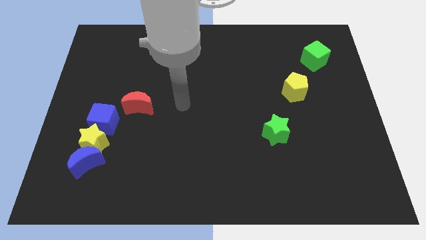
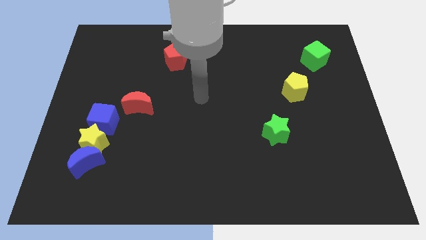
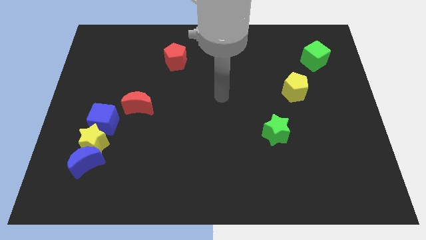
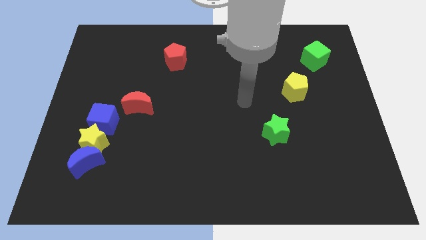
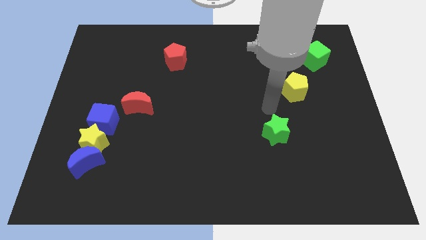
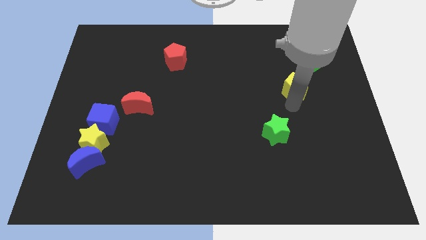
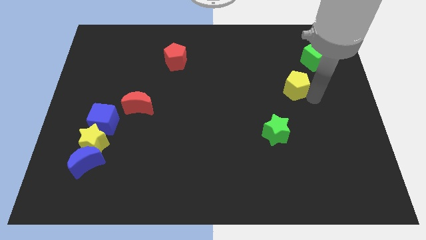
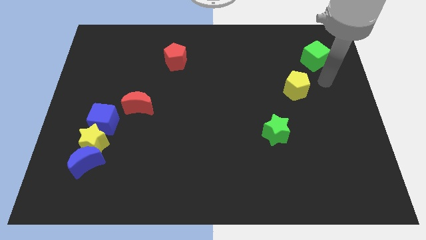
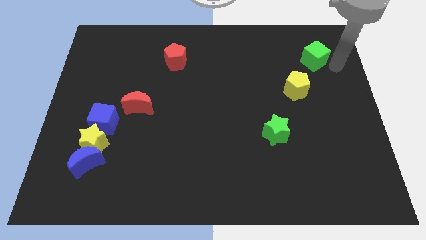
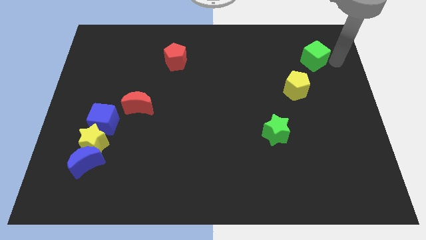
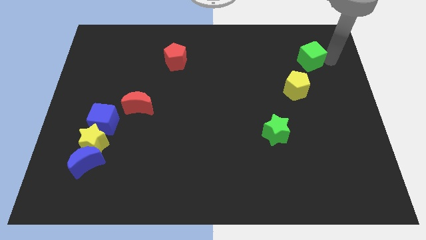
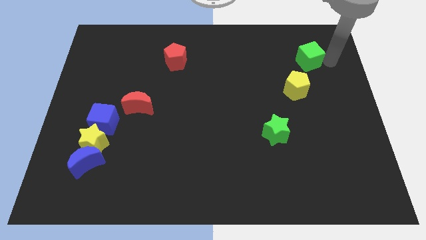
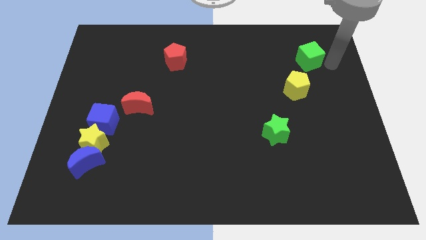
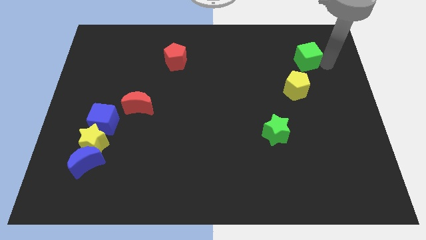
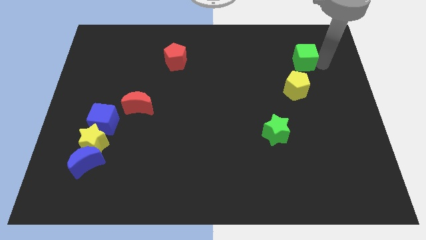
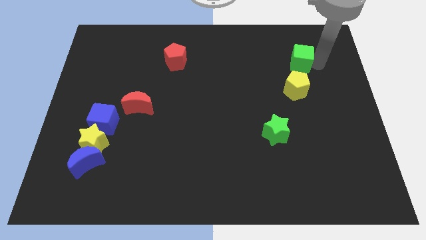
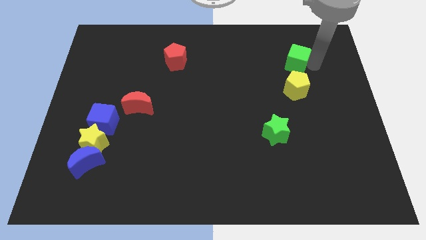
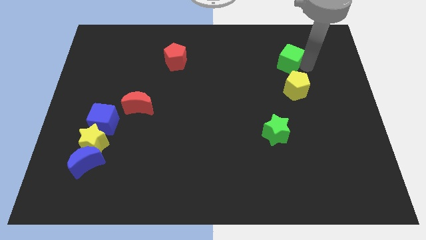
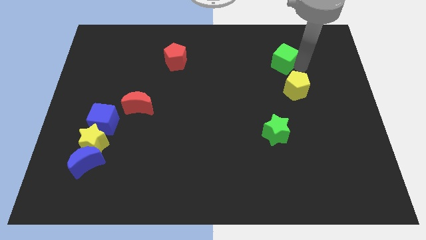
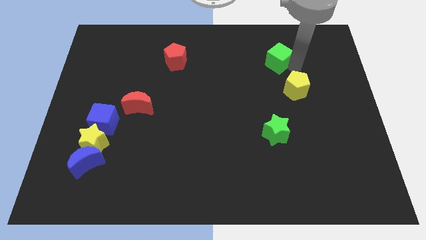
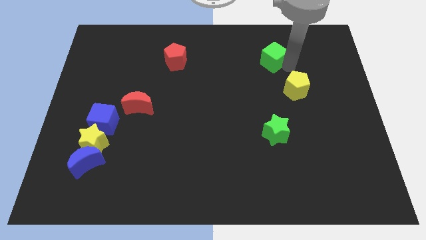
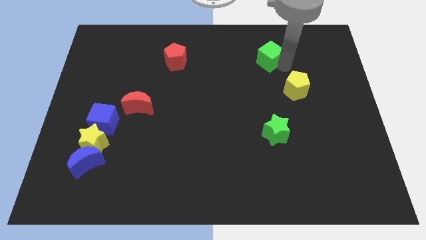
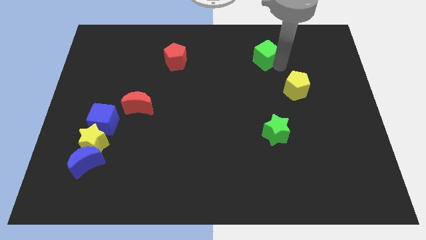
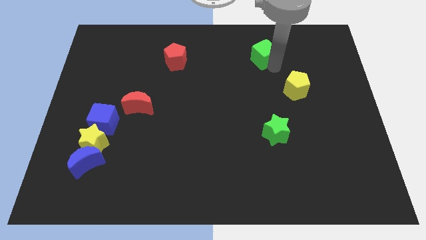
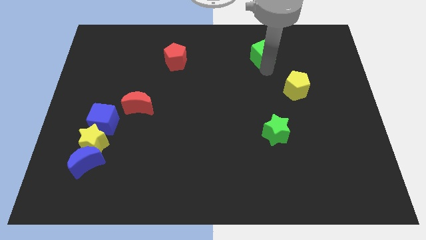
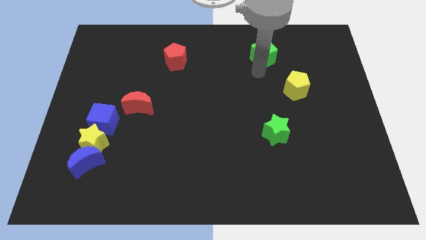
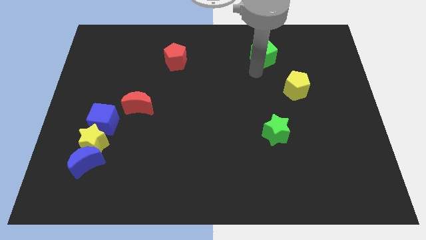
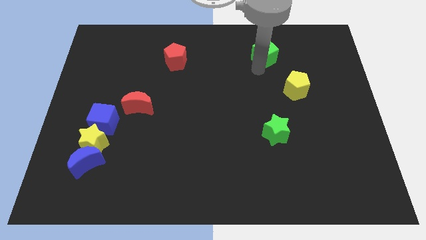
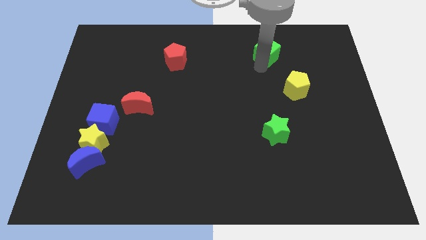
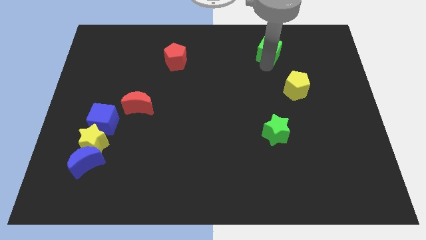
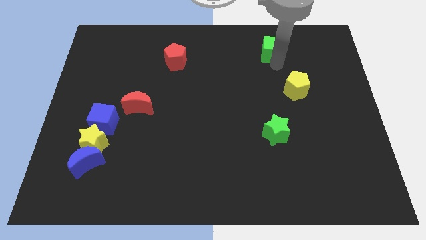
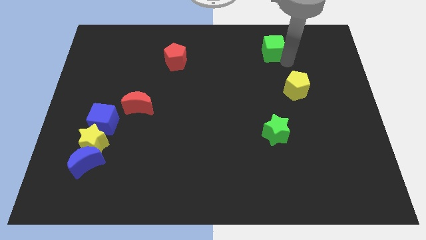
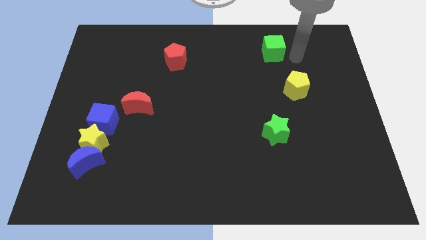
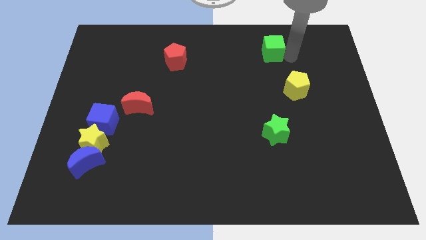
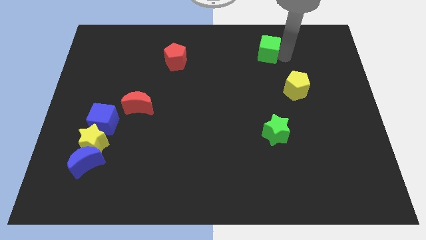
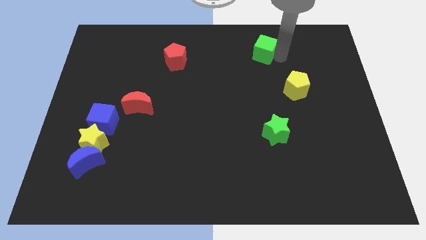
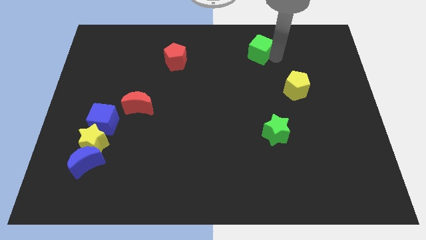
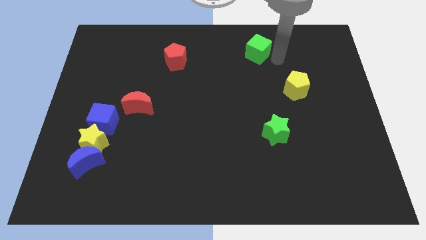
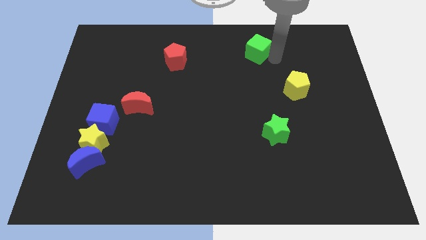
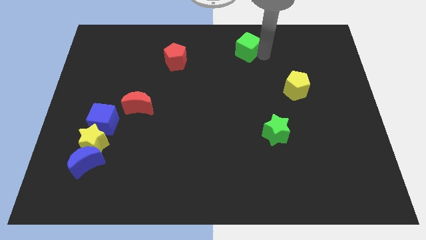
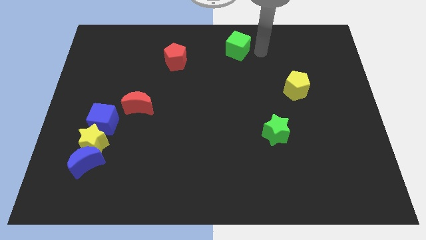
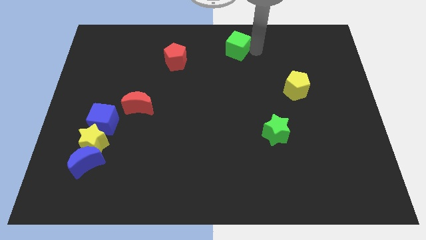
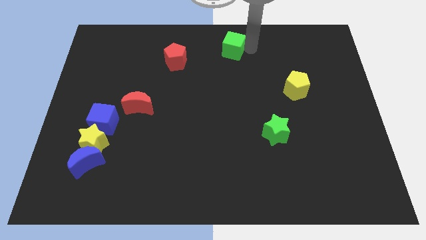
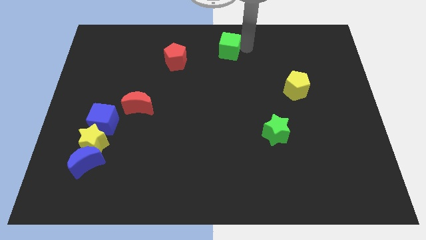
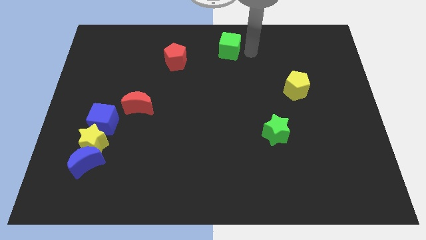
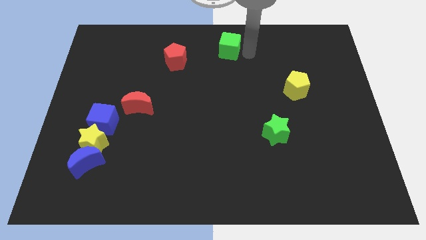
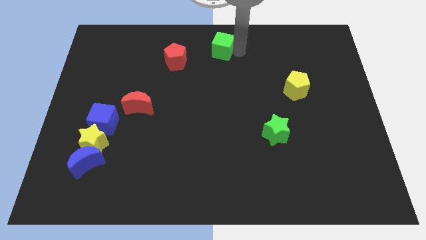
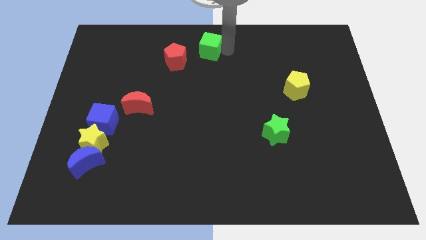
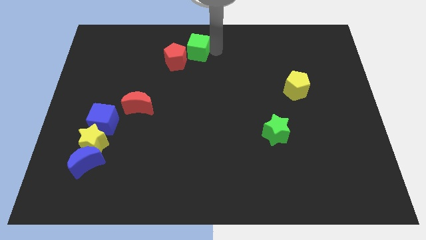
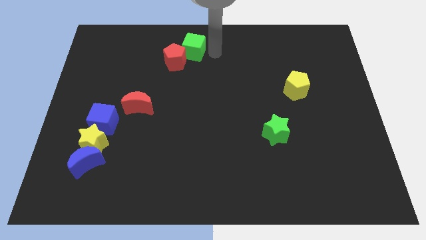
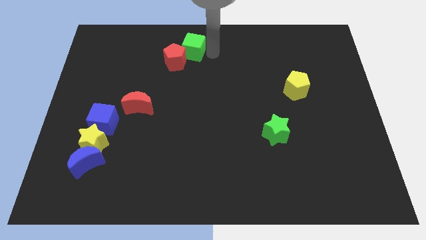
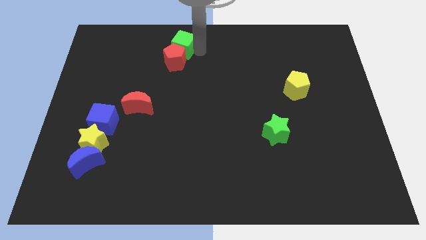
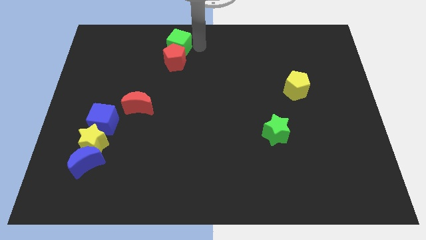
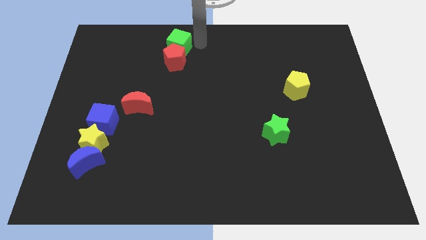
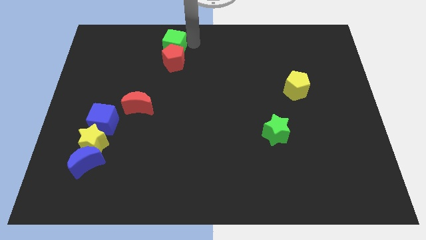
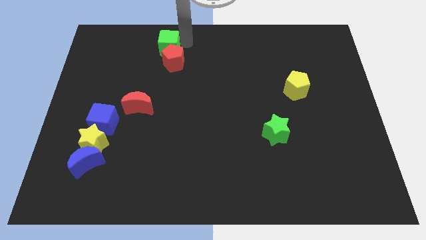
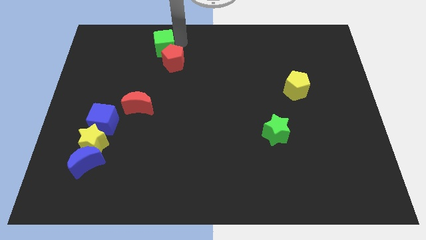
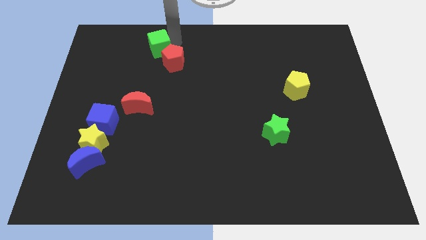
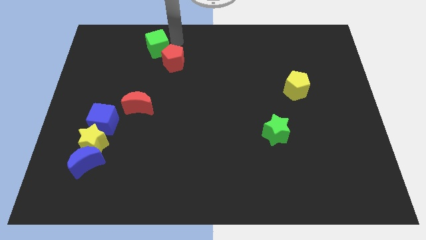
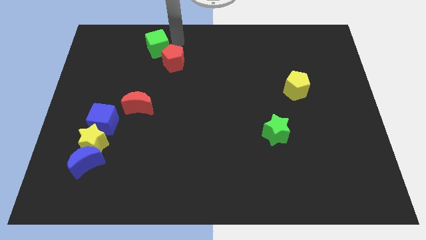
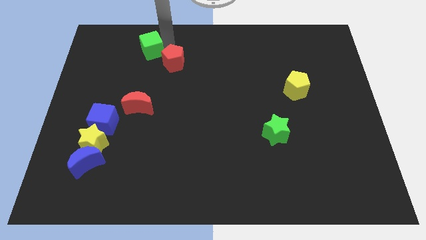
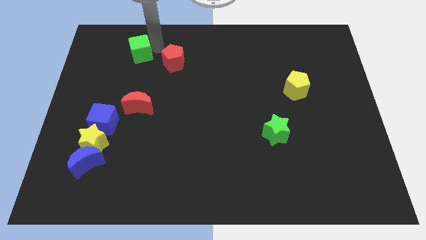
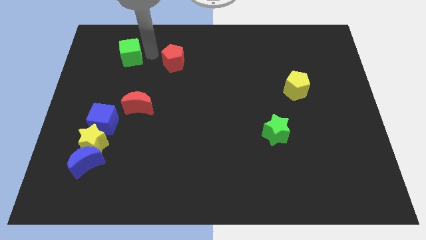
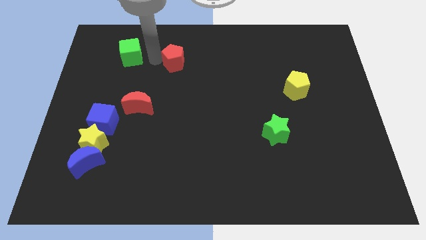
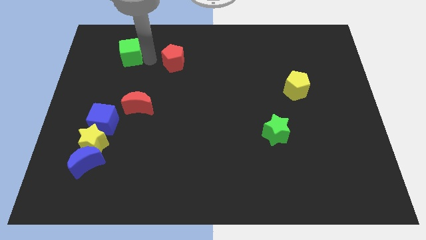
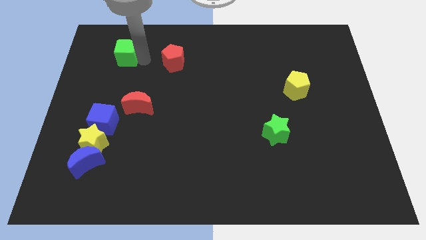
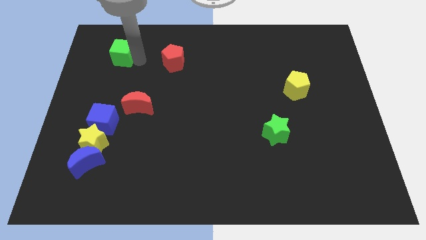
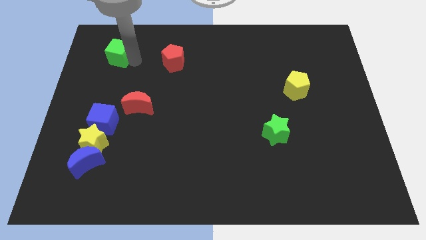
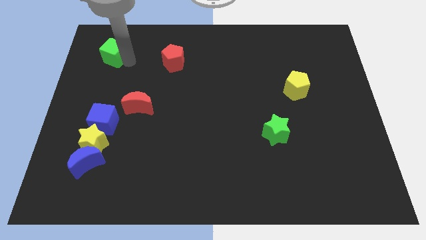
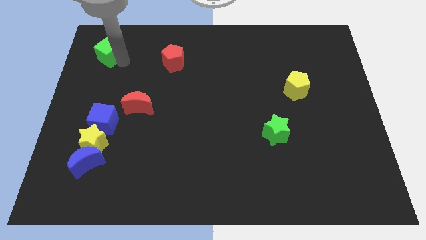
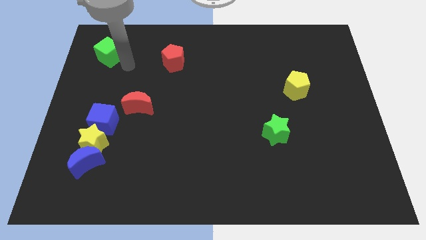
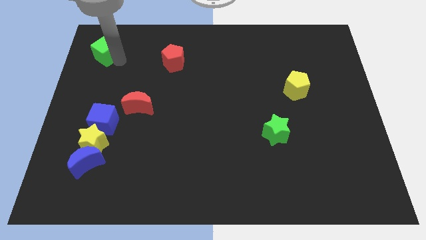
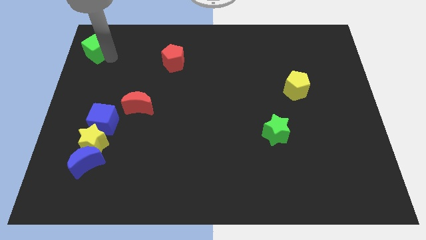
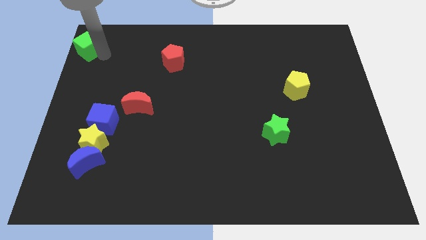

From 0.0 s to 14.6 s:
push the green cube to the top left of the board
